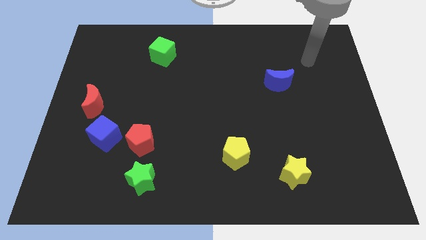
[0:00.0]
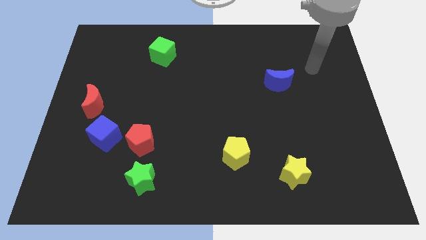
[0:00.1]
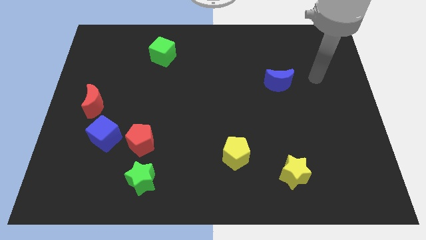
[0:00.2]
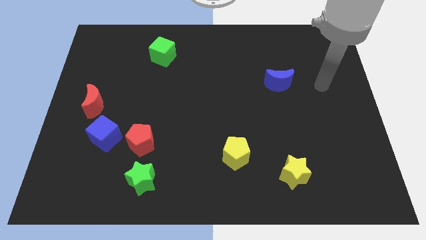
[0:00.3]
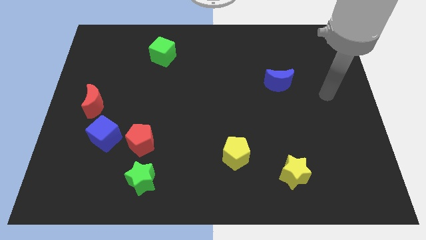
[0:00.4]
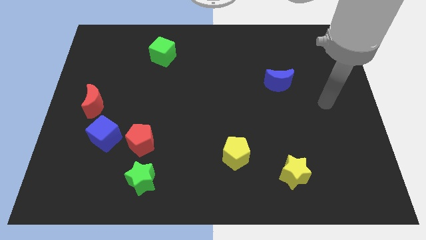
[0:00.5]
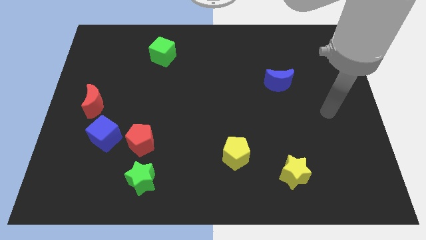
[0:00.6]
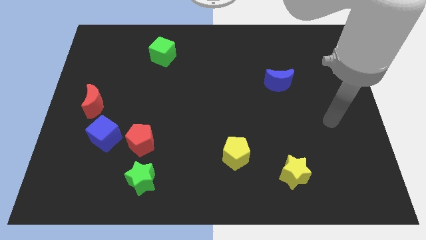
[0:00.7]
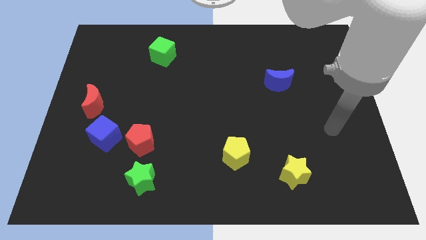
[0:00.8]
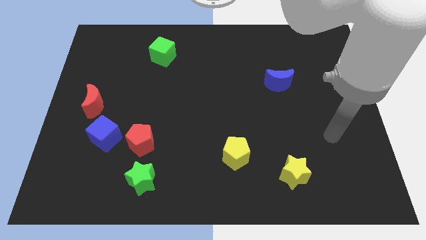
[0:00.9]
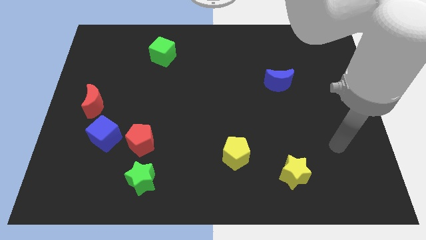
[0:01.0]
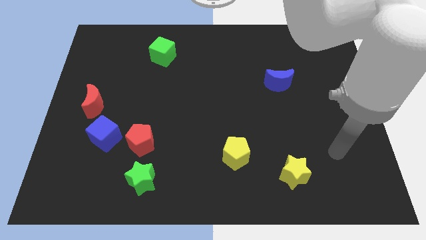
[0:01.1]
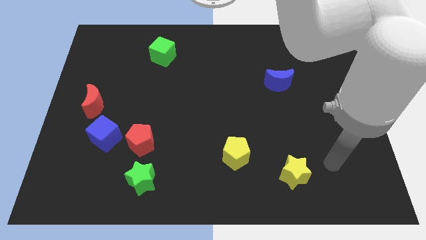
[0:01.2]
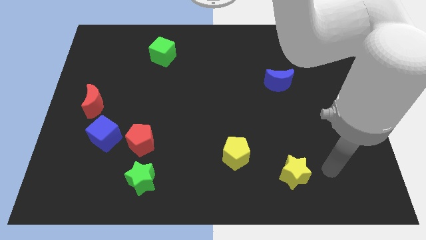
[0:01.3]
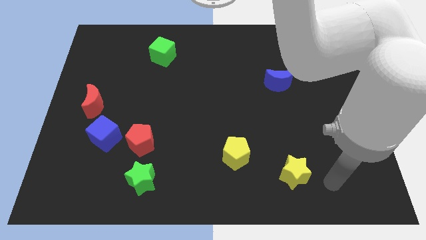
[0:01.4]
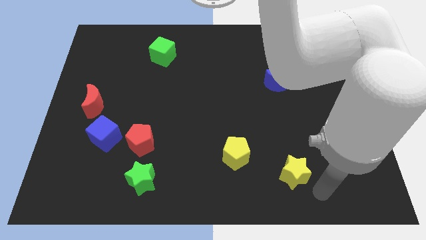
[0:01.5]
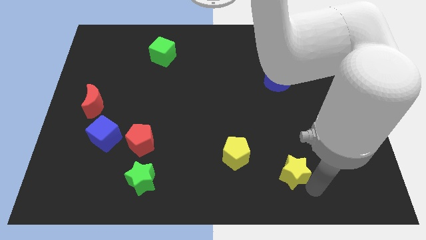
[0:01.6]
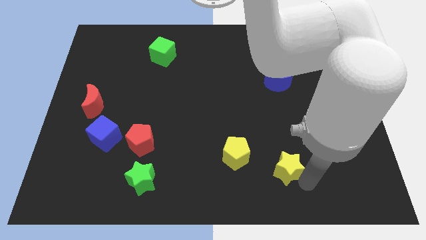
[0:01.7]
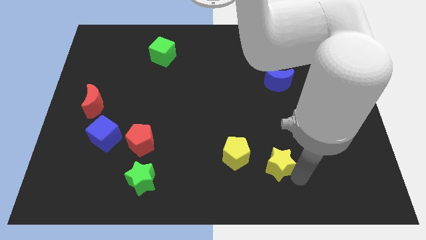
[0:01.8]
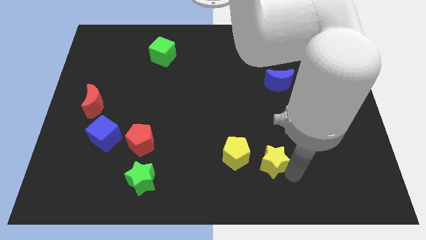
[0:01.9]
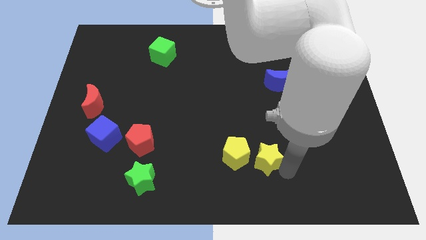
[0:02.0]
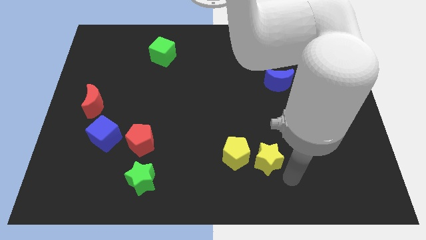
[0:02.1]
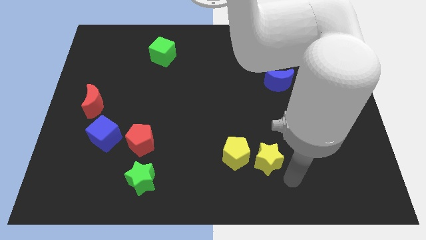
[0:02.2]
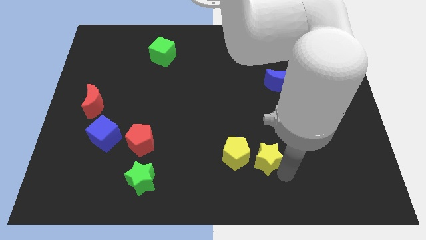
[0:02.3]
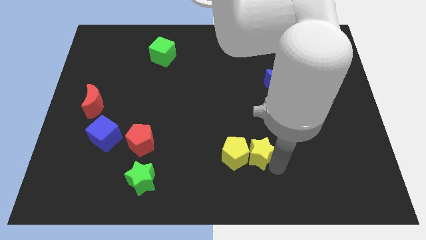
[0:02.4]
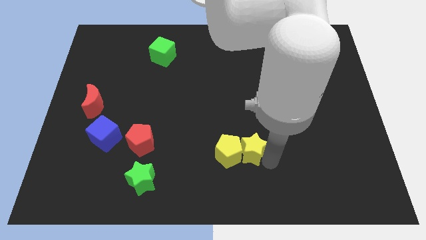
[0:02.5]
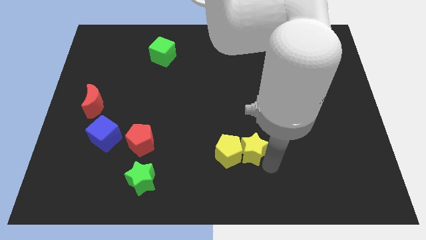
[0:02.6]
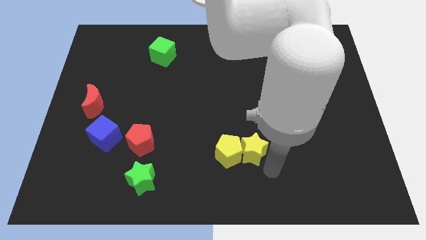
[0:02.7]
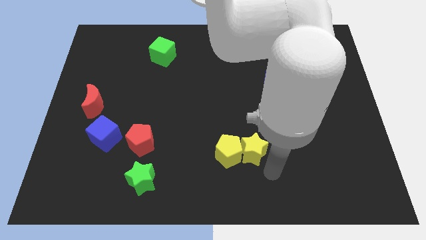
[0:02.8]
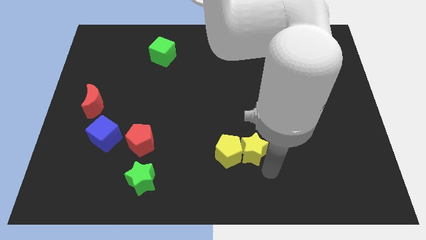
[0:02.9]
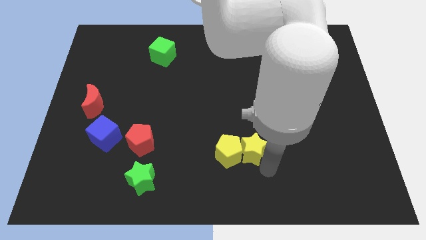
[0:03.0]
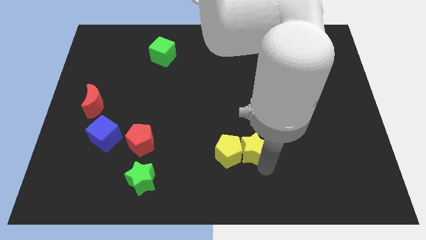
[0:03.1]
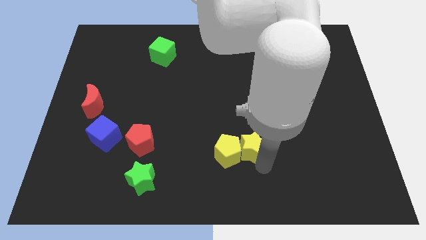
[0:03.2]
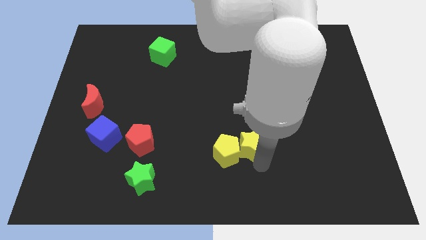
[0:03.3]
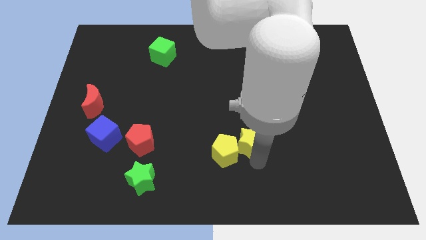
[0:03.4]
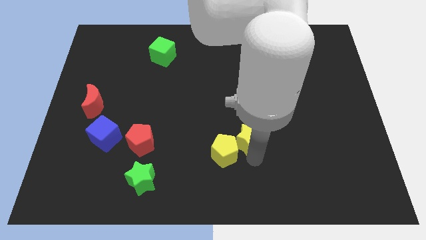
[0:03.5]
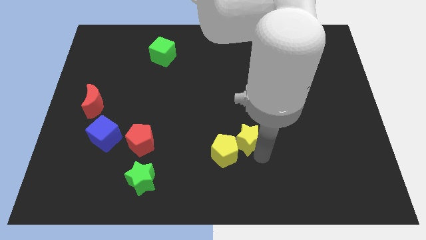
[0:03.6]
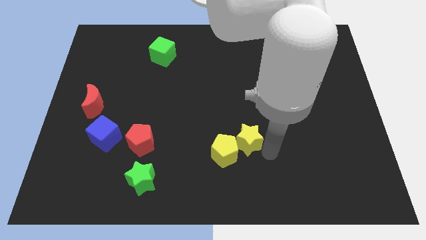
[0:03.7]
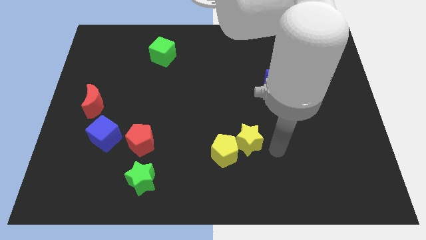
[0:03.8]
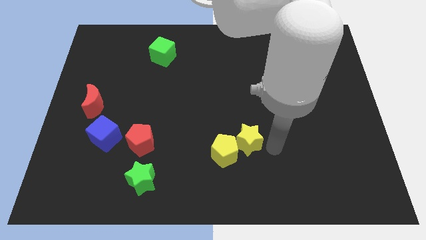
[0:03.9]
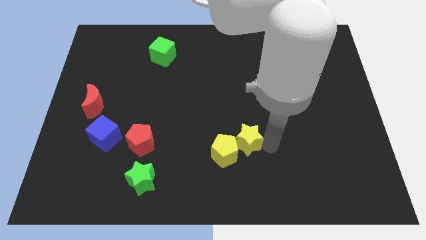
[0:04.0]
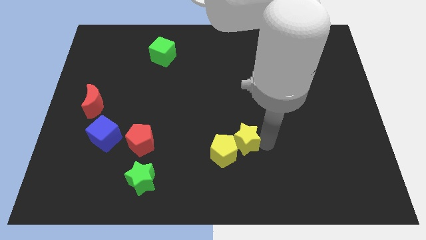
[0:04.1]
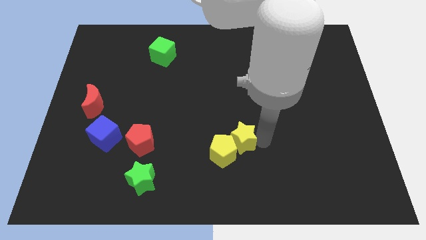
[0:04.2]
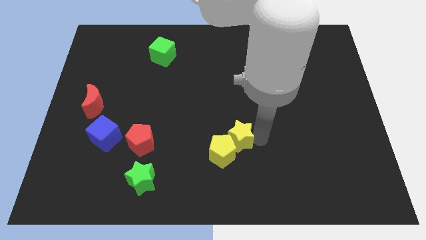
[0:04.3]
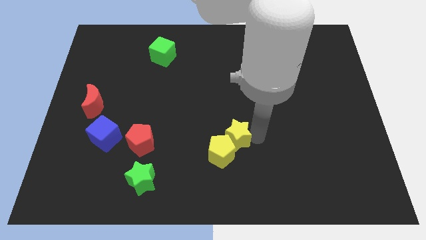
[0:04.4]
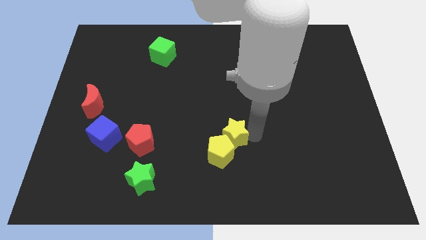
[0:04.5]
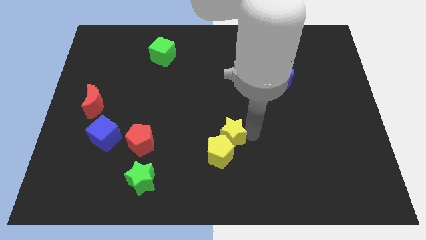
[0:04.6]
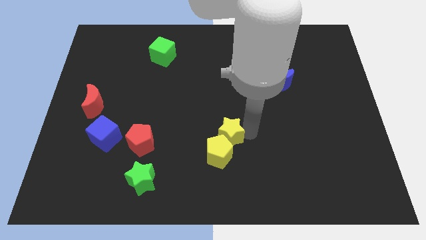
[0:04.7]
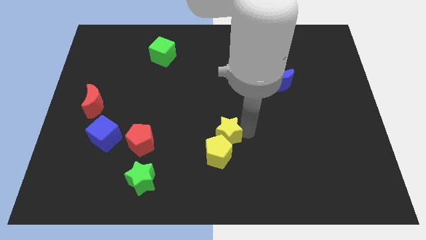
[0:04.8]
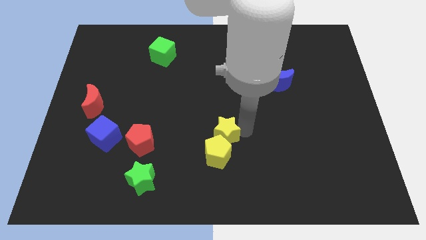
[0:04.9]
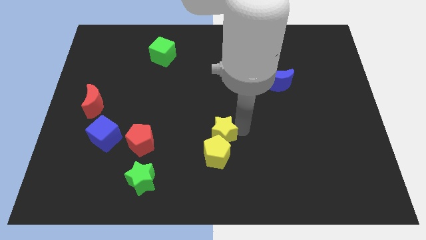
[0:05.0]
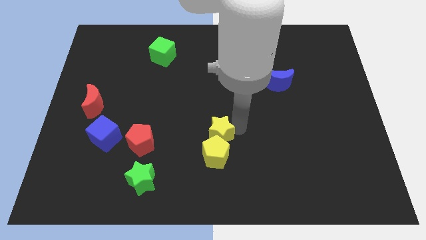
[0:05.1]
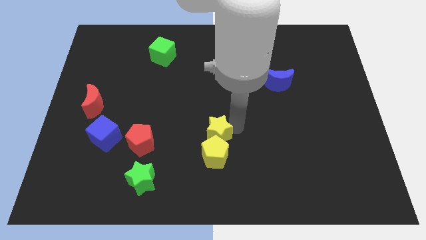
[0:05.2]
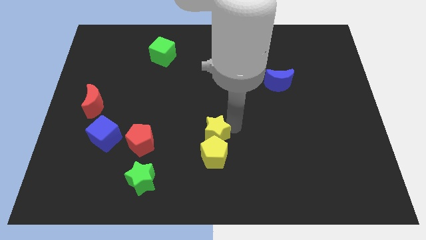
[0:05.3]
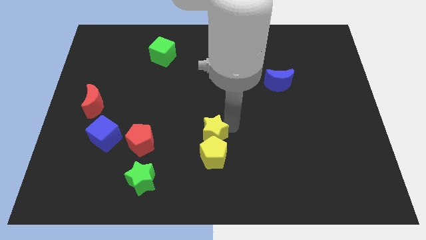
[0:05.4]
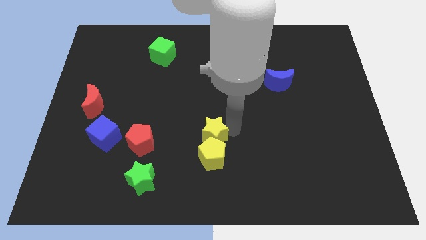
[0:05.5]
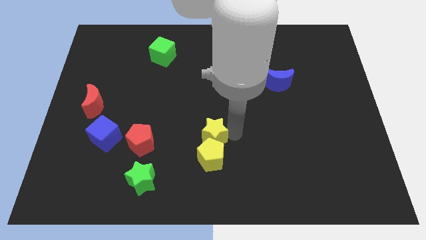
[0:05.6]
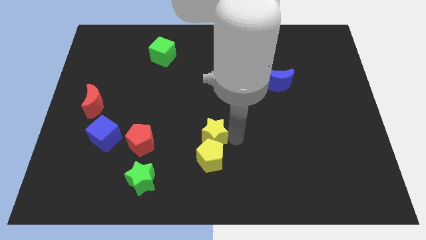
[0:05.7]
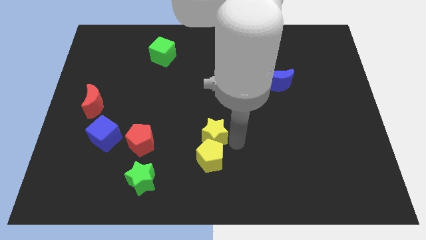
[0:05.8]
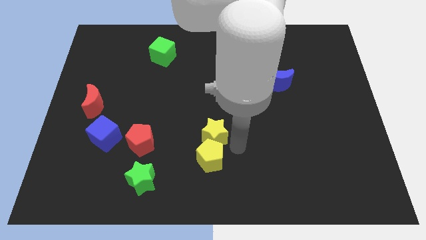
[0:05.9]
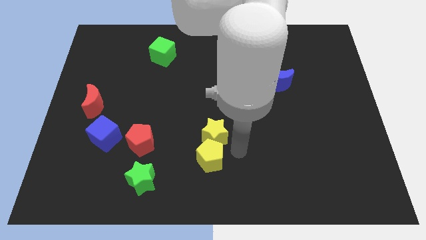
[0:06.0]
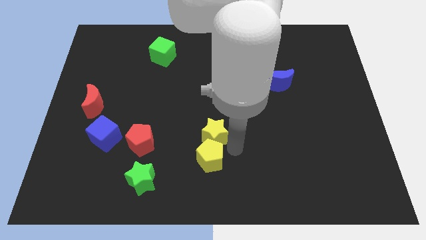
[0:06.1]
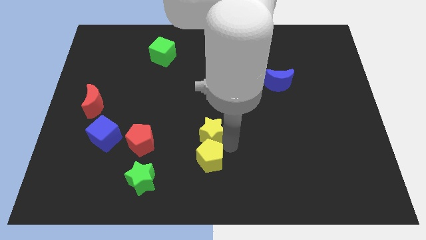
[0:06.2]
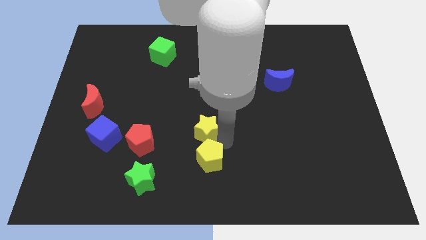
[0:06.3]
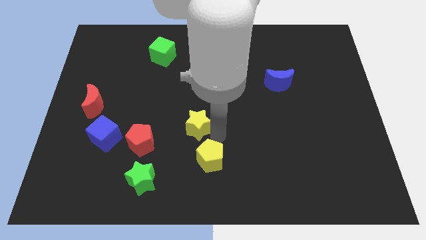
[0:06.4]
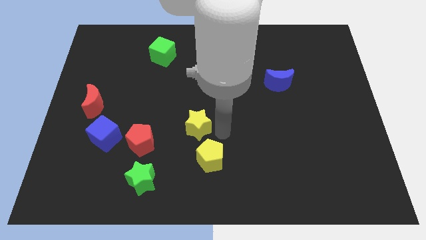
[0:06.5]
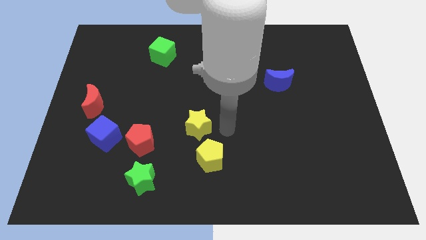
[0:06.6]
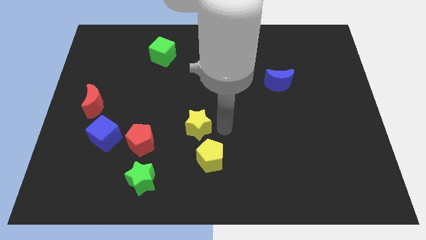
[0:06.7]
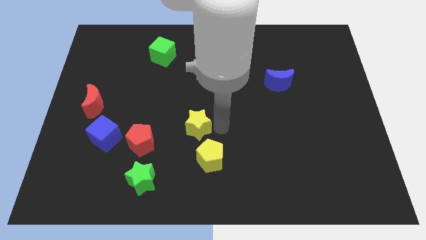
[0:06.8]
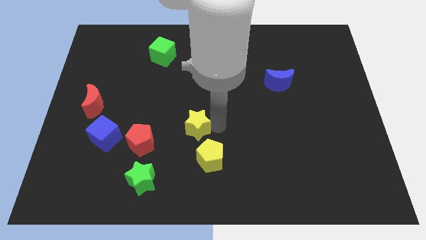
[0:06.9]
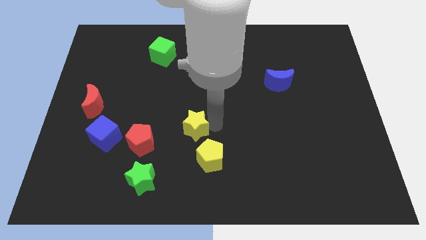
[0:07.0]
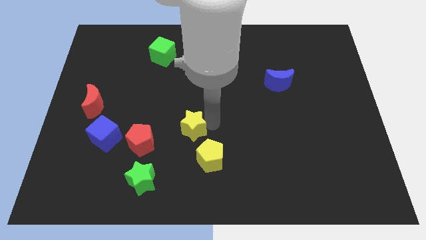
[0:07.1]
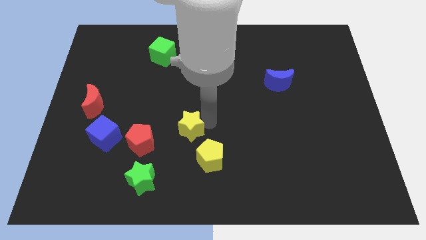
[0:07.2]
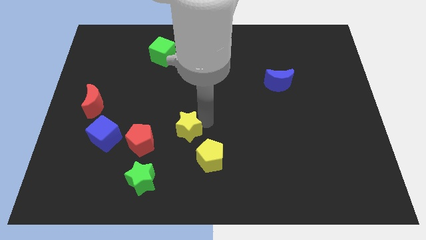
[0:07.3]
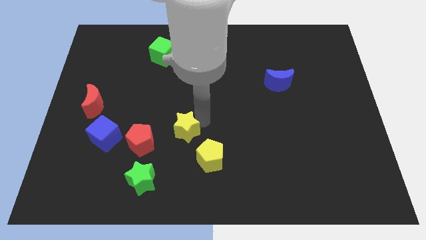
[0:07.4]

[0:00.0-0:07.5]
slide the yellow star to the top right of the red pentagon
